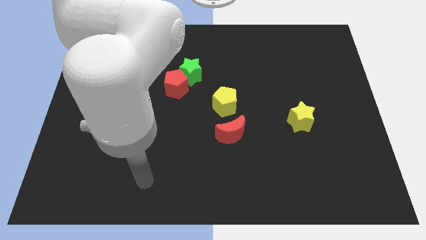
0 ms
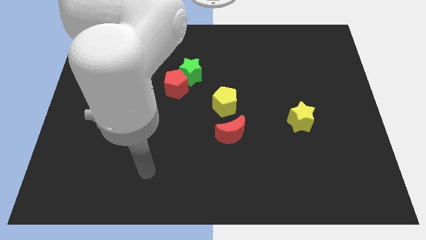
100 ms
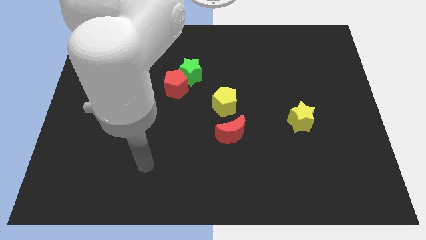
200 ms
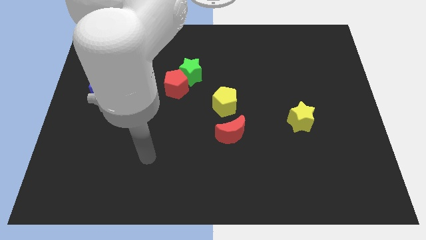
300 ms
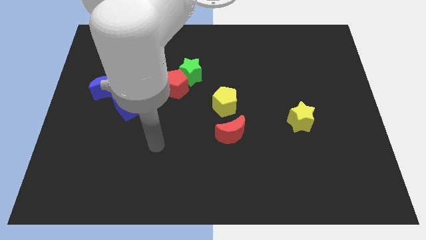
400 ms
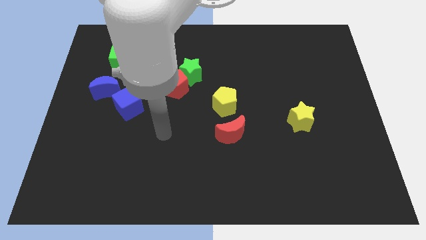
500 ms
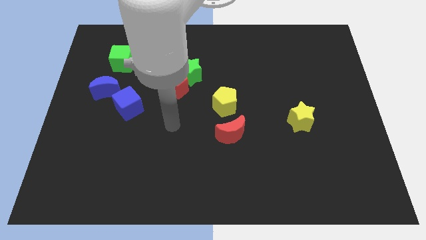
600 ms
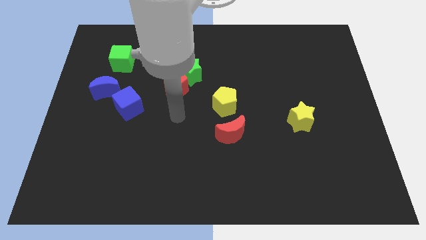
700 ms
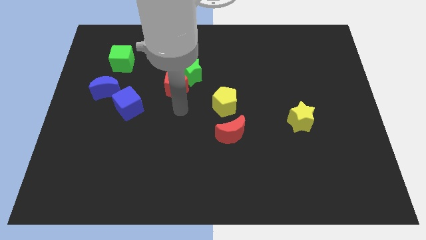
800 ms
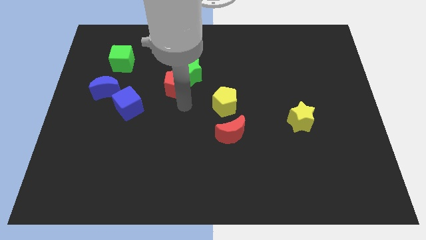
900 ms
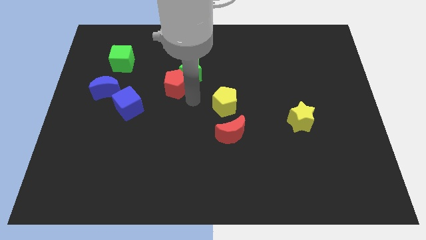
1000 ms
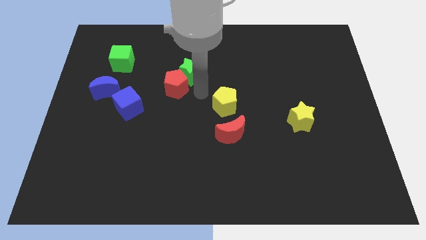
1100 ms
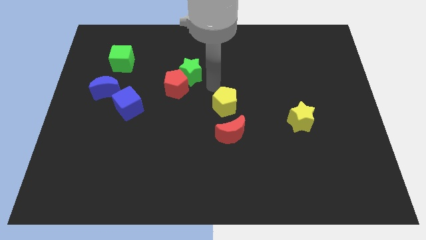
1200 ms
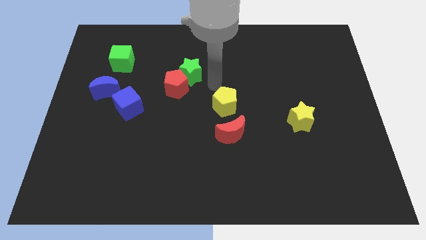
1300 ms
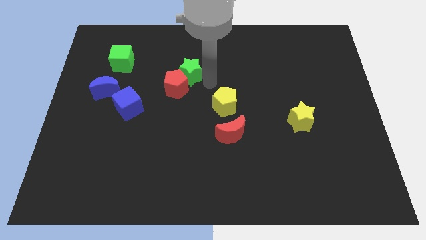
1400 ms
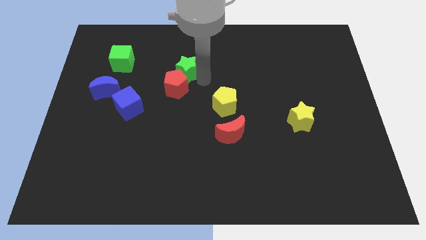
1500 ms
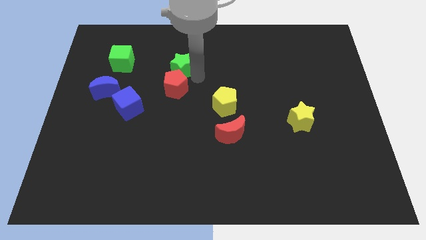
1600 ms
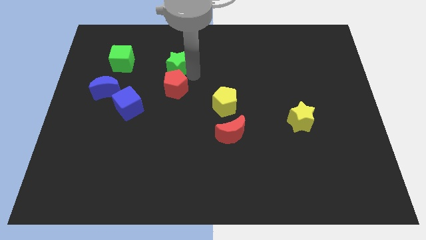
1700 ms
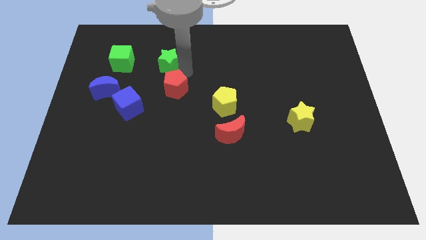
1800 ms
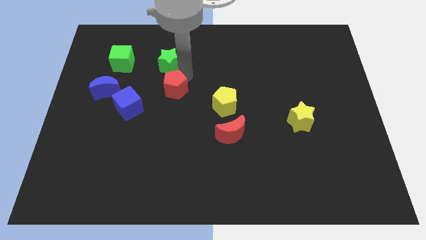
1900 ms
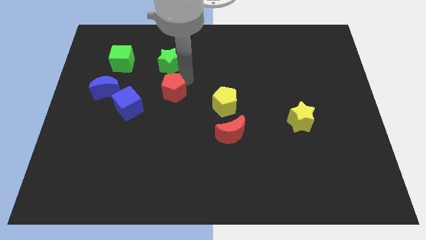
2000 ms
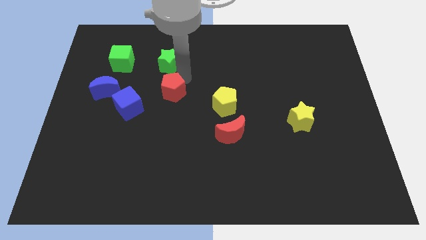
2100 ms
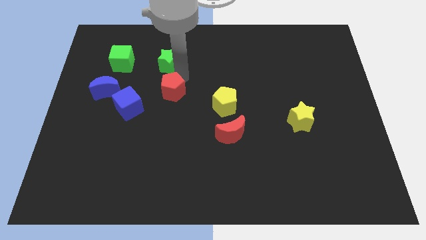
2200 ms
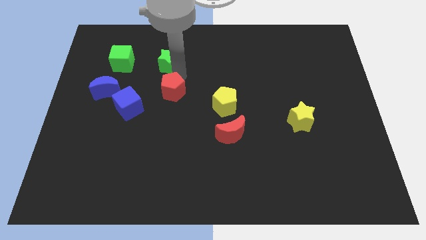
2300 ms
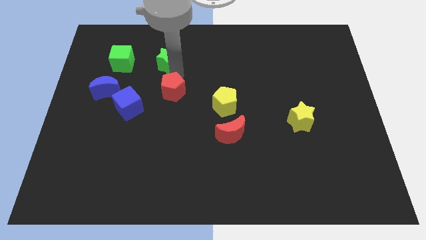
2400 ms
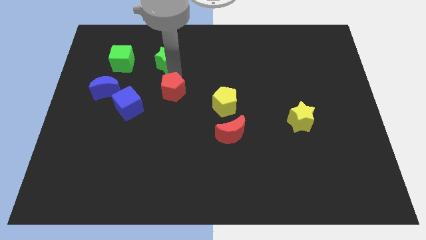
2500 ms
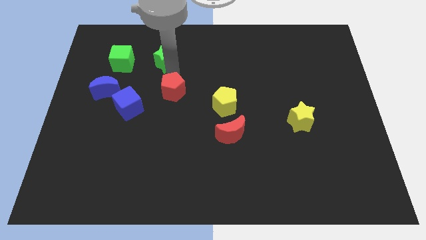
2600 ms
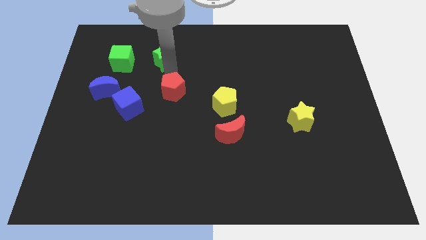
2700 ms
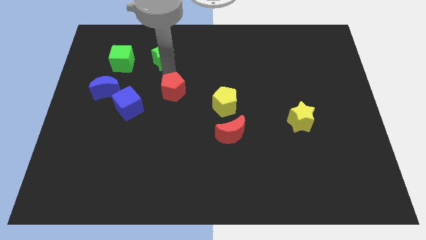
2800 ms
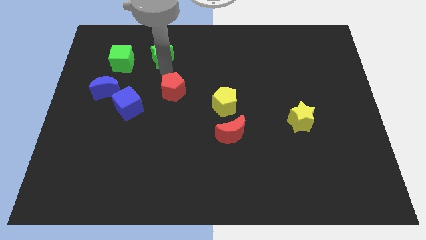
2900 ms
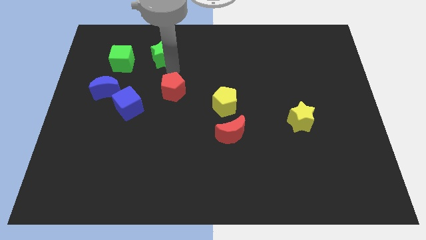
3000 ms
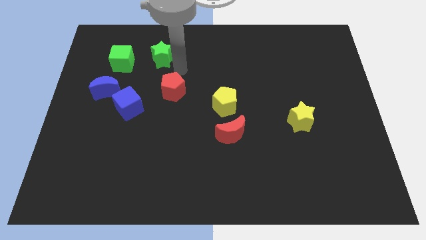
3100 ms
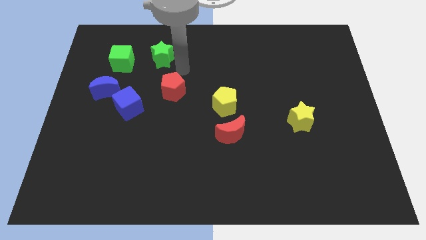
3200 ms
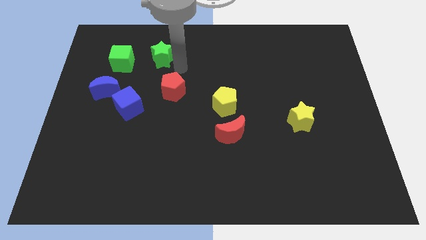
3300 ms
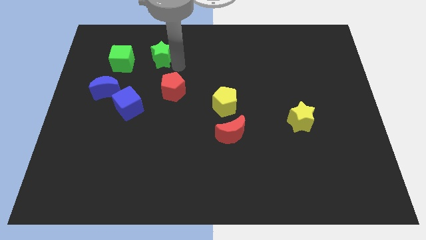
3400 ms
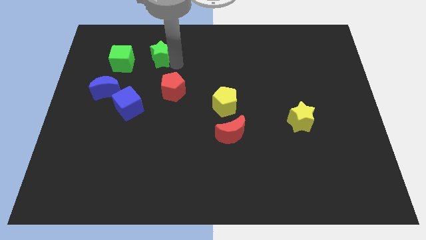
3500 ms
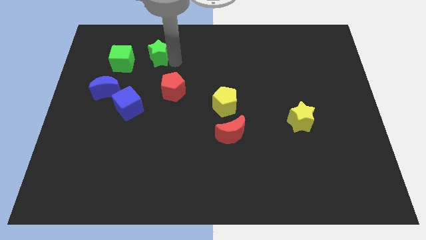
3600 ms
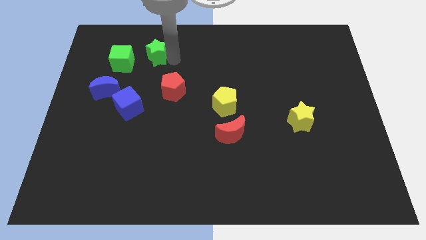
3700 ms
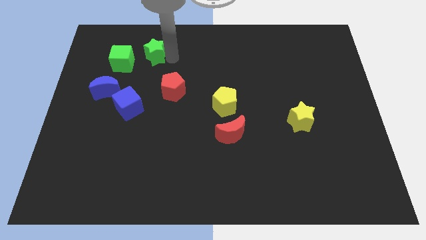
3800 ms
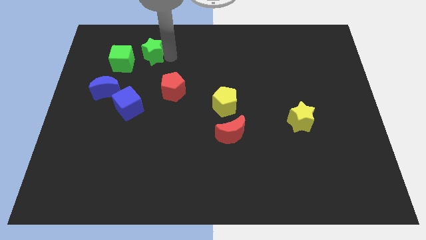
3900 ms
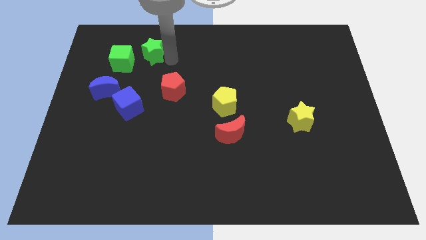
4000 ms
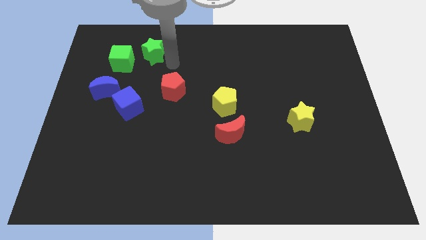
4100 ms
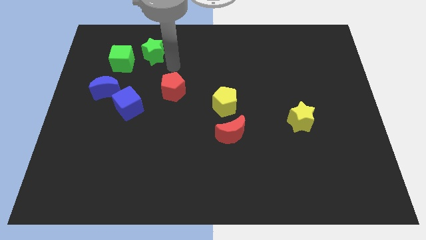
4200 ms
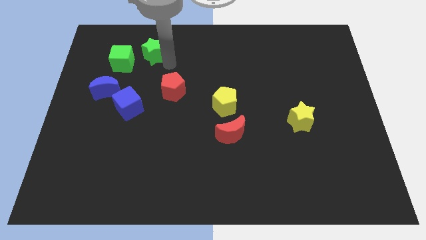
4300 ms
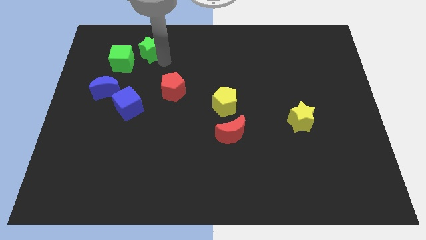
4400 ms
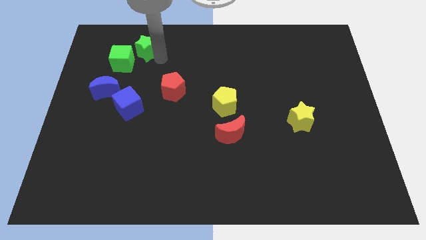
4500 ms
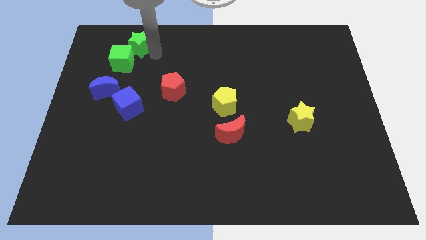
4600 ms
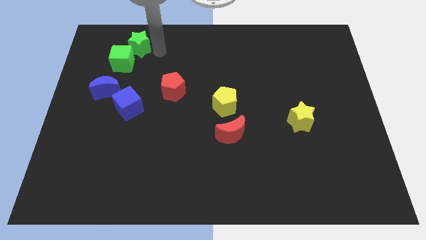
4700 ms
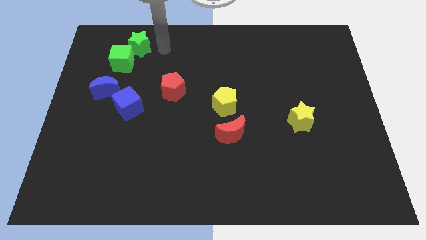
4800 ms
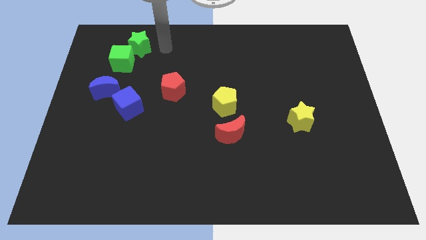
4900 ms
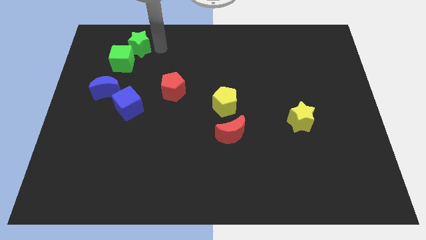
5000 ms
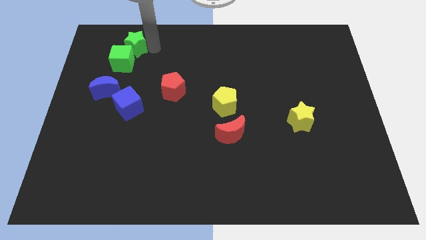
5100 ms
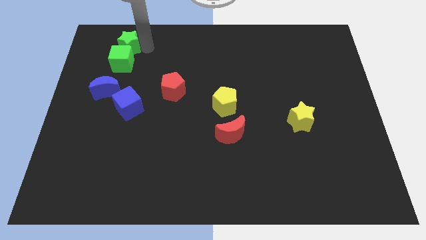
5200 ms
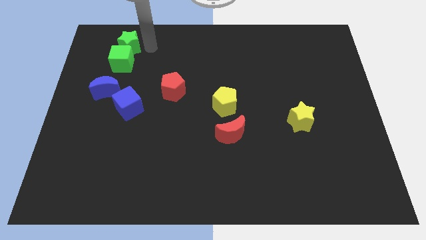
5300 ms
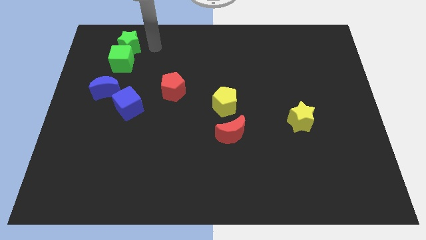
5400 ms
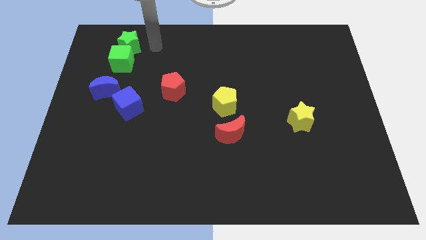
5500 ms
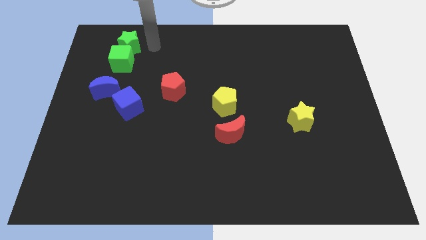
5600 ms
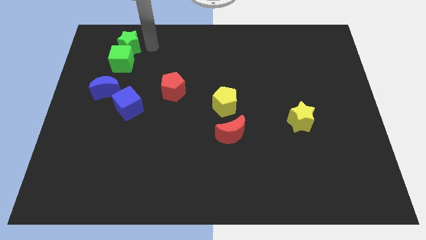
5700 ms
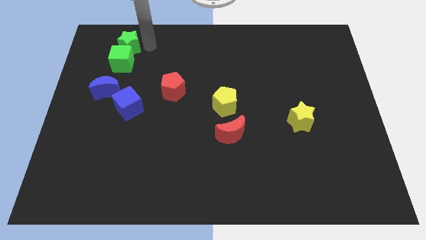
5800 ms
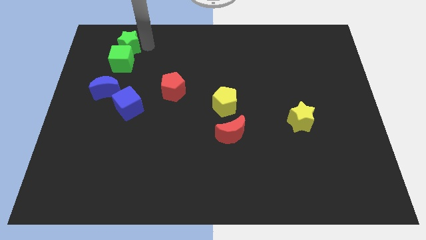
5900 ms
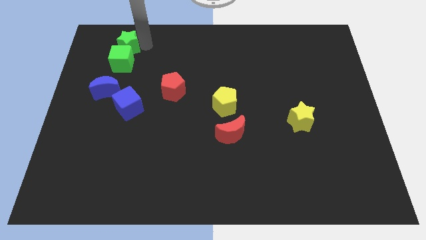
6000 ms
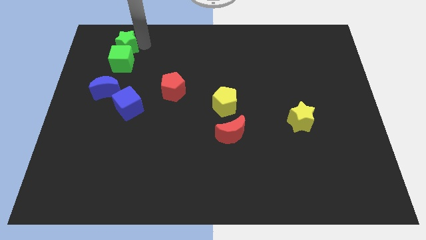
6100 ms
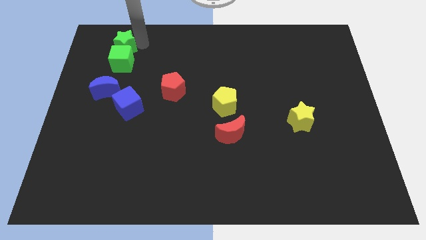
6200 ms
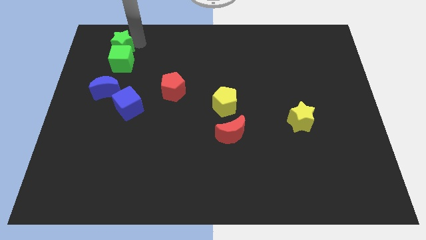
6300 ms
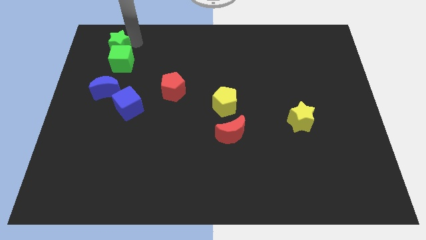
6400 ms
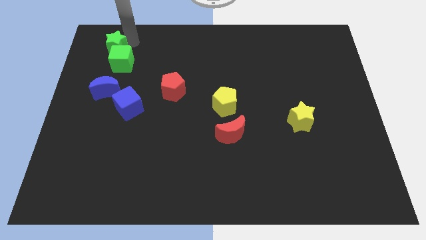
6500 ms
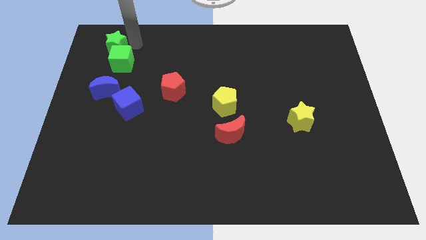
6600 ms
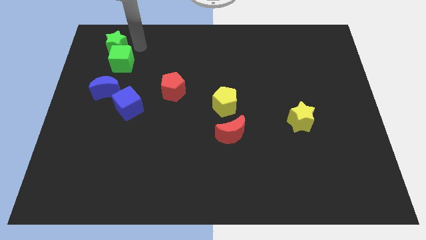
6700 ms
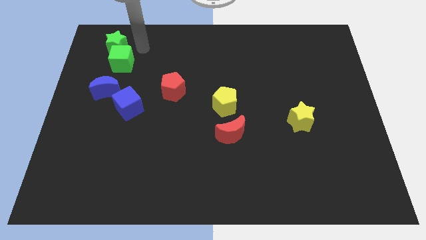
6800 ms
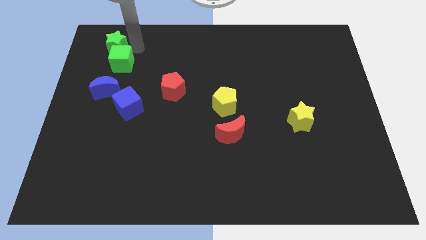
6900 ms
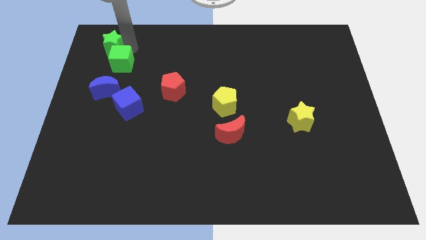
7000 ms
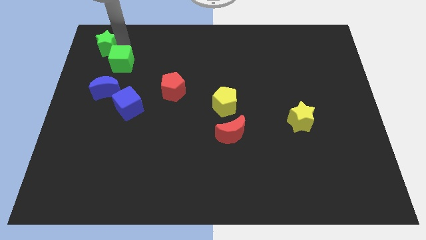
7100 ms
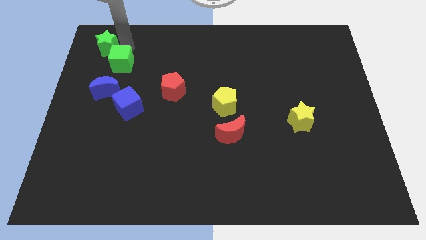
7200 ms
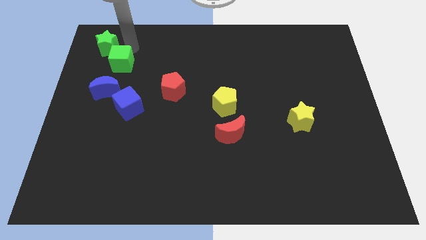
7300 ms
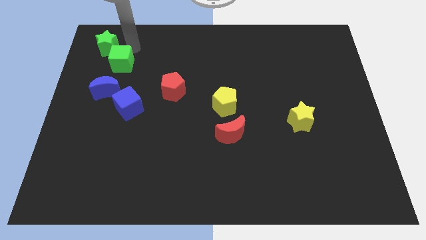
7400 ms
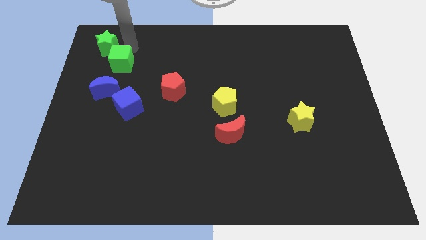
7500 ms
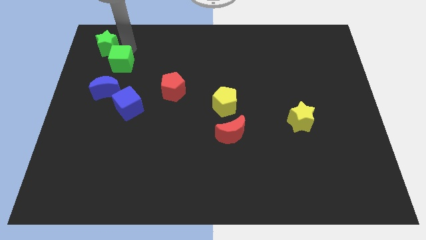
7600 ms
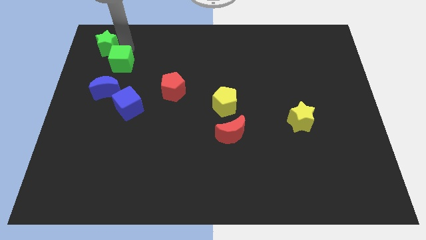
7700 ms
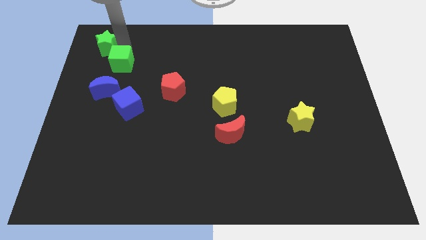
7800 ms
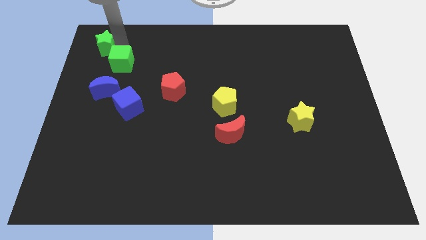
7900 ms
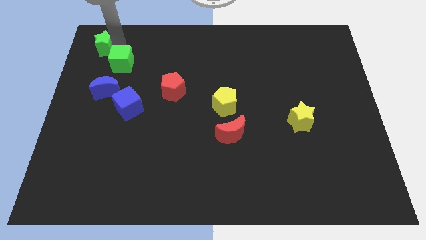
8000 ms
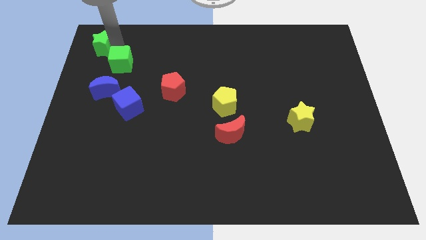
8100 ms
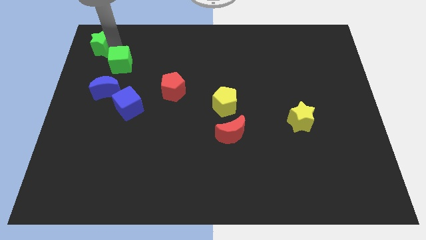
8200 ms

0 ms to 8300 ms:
put the green star to the top left
